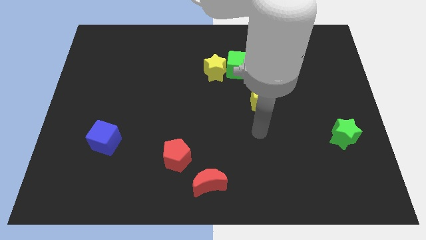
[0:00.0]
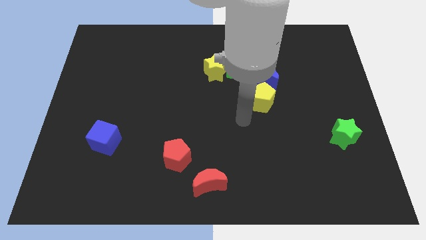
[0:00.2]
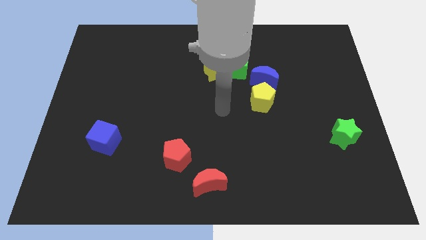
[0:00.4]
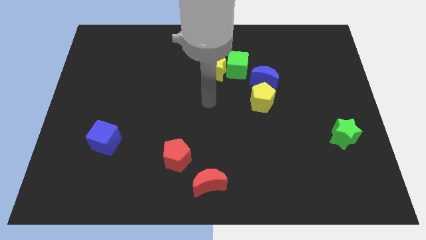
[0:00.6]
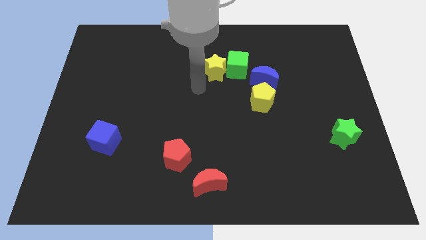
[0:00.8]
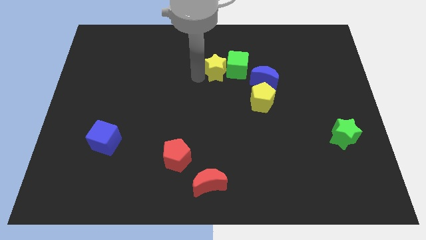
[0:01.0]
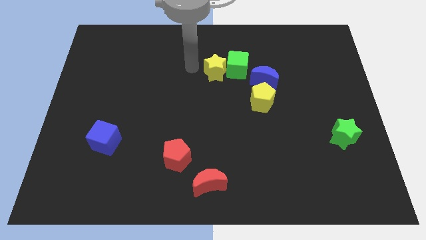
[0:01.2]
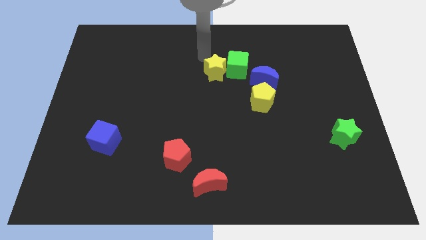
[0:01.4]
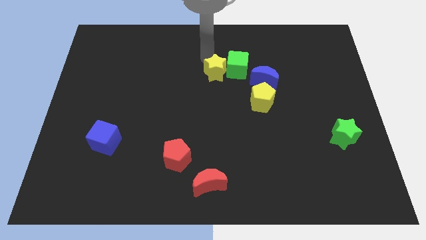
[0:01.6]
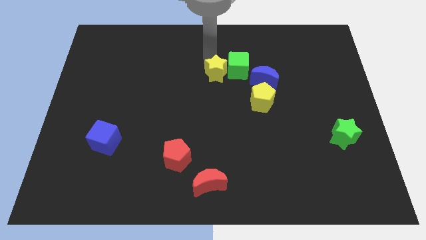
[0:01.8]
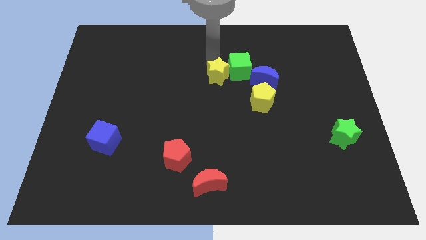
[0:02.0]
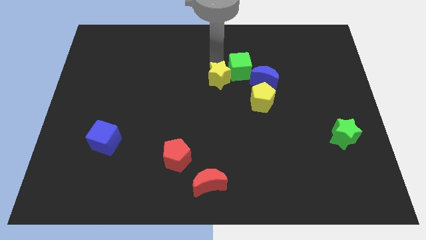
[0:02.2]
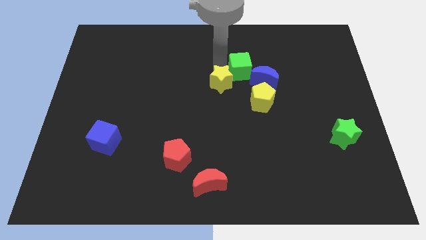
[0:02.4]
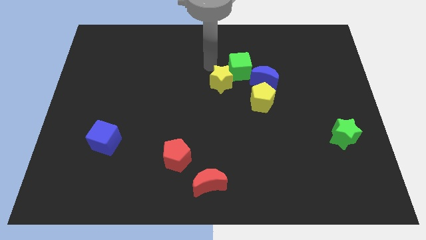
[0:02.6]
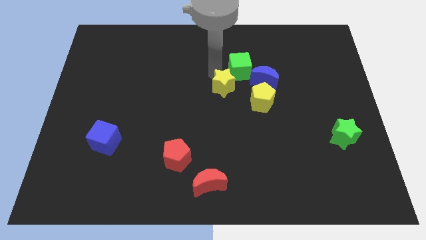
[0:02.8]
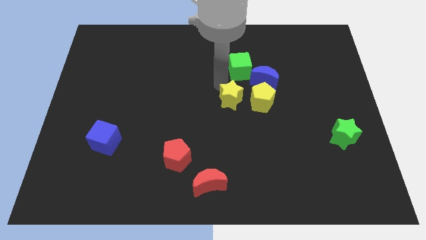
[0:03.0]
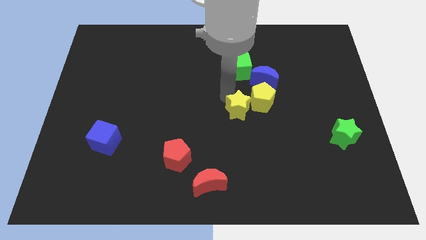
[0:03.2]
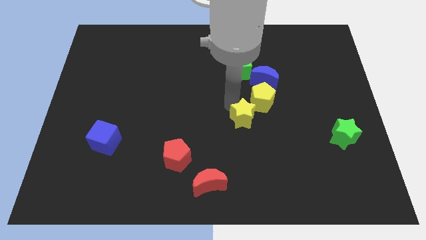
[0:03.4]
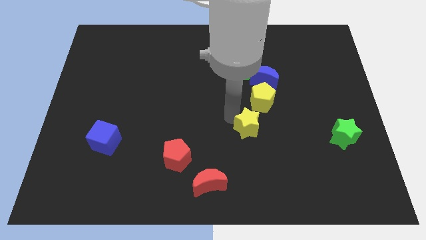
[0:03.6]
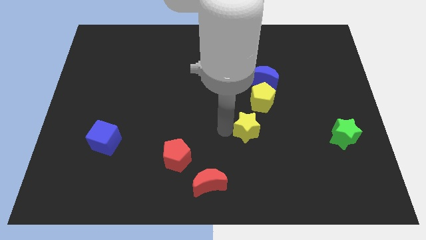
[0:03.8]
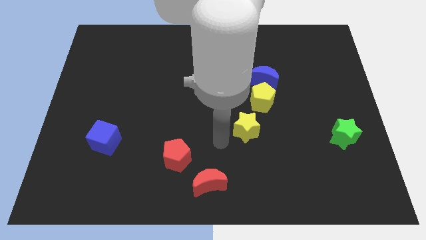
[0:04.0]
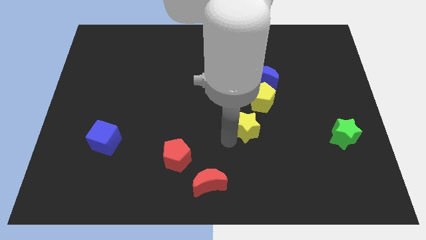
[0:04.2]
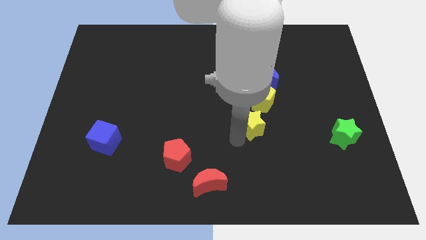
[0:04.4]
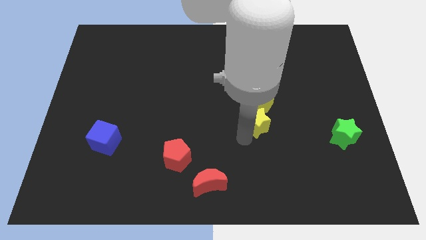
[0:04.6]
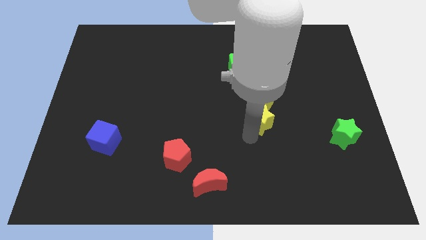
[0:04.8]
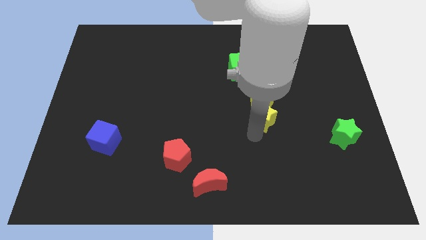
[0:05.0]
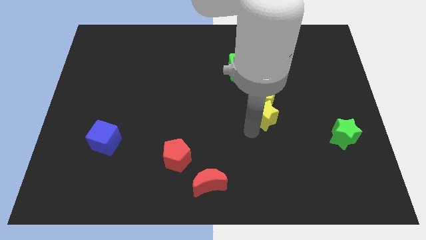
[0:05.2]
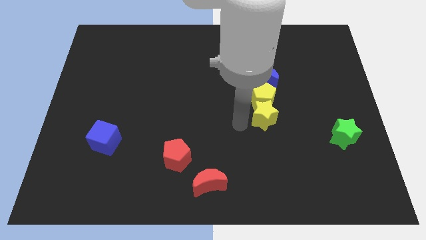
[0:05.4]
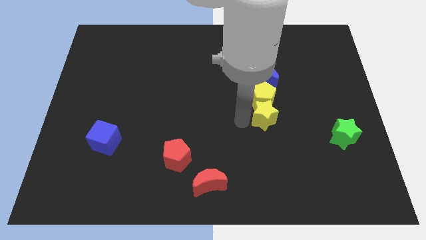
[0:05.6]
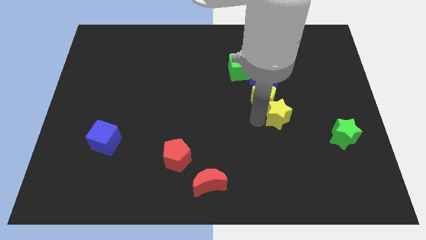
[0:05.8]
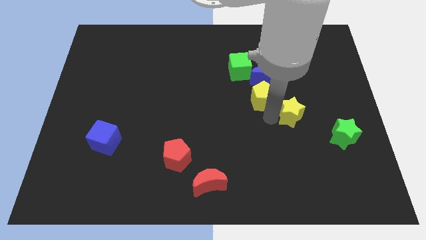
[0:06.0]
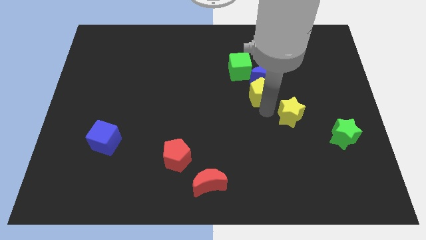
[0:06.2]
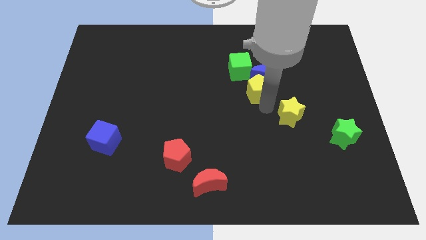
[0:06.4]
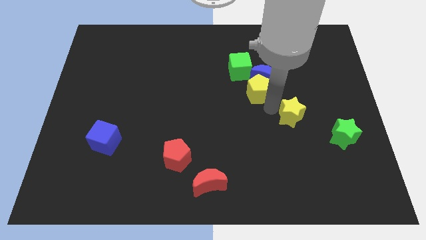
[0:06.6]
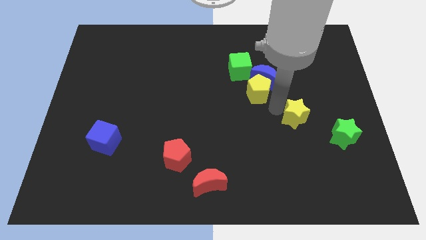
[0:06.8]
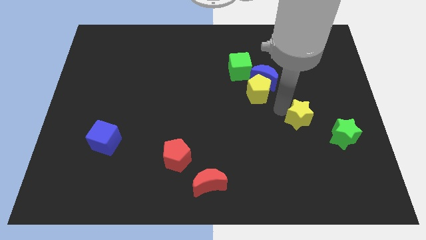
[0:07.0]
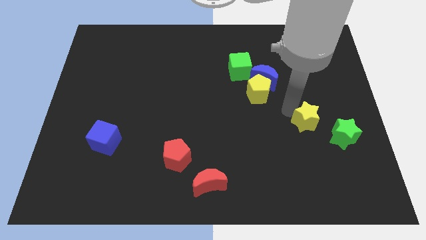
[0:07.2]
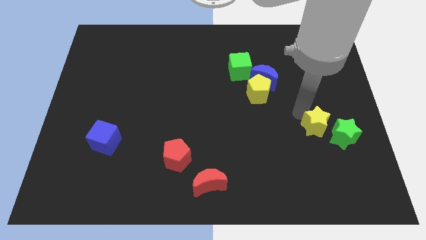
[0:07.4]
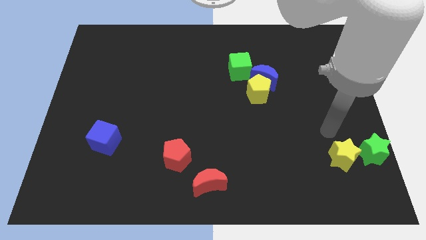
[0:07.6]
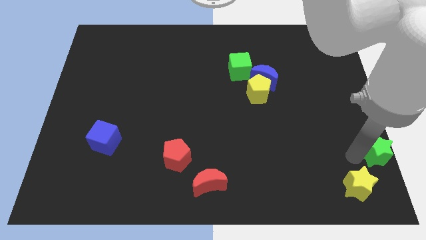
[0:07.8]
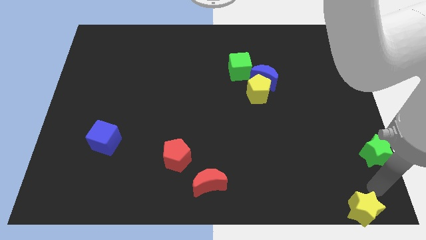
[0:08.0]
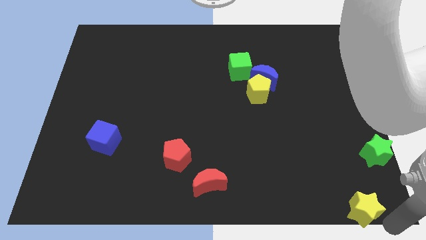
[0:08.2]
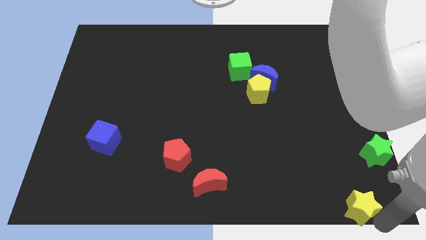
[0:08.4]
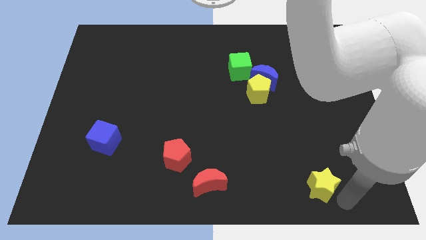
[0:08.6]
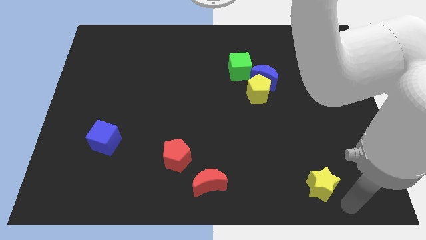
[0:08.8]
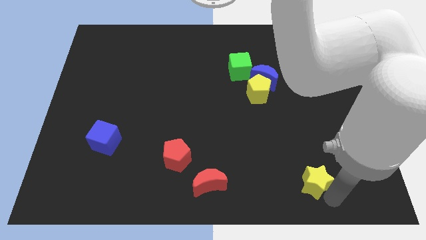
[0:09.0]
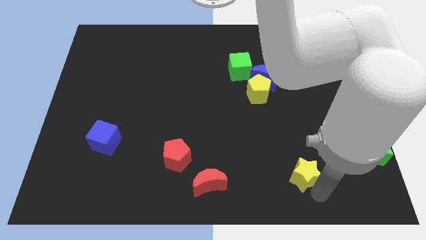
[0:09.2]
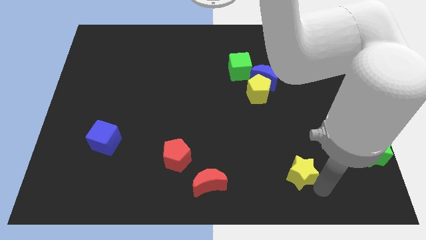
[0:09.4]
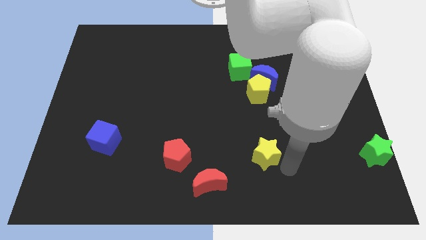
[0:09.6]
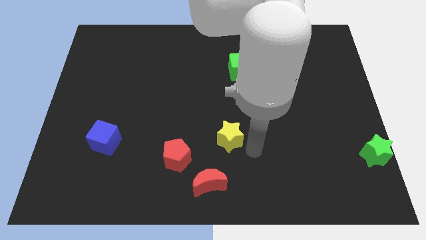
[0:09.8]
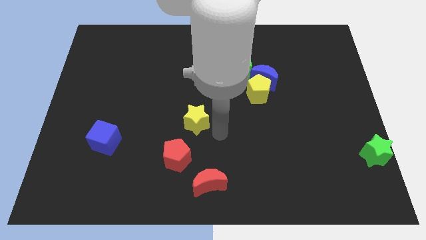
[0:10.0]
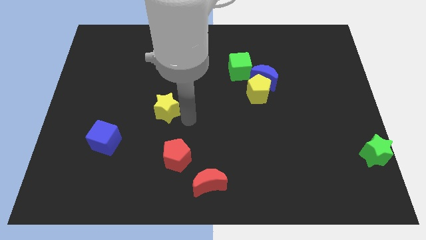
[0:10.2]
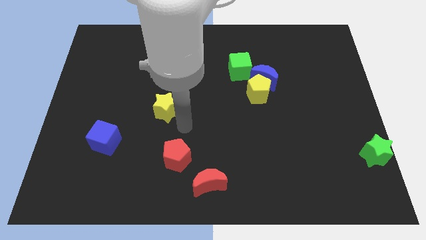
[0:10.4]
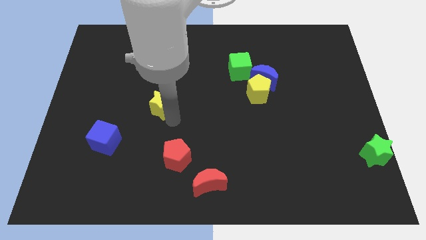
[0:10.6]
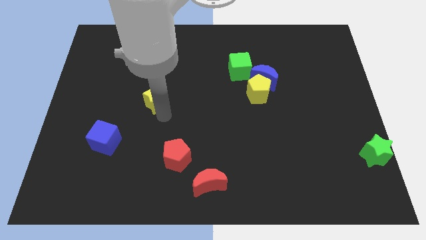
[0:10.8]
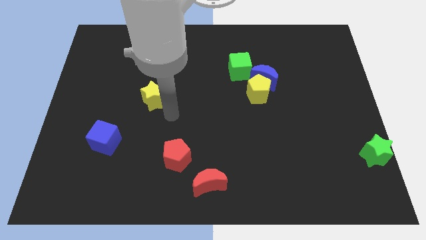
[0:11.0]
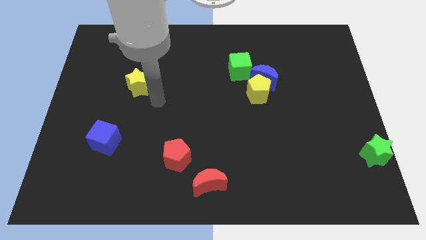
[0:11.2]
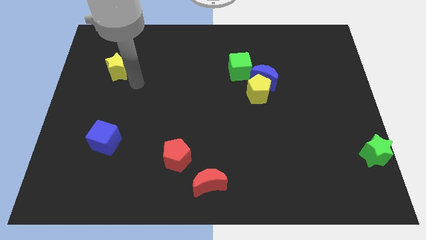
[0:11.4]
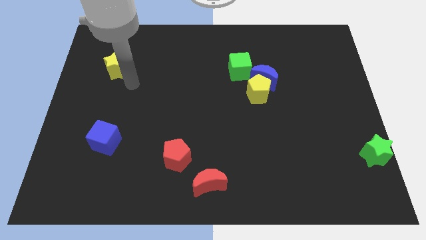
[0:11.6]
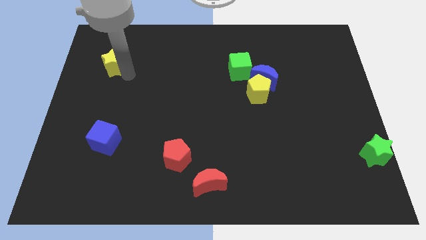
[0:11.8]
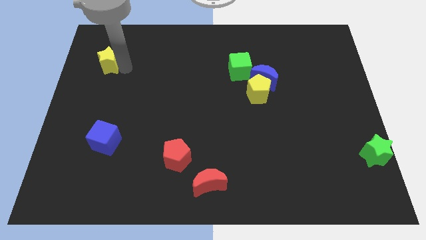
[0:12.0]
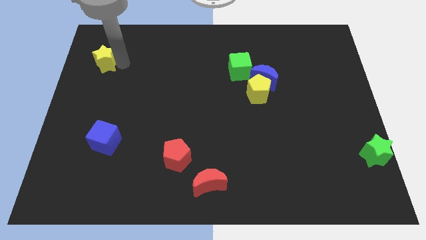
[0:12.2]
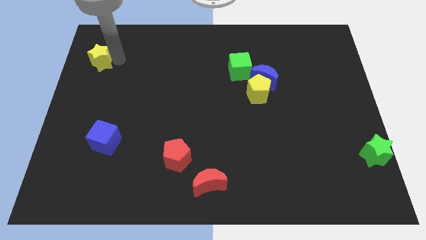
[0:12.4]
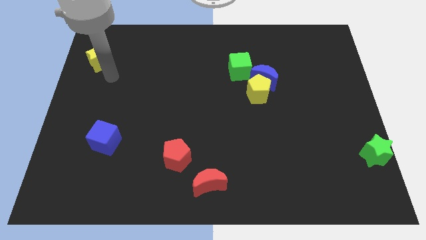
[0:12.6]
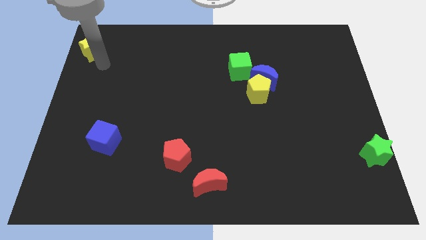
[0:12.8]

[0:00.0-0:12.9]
push the yellow star to the top left of the board
